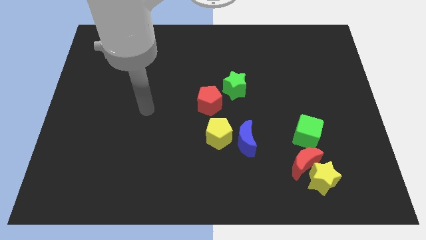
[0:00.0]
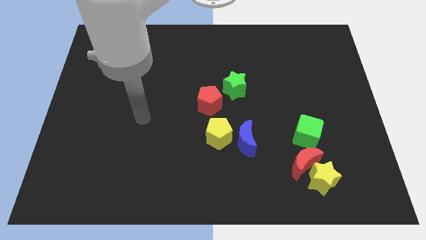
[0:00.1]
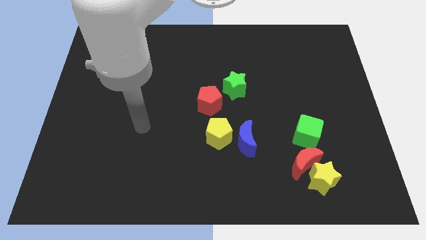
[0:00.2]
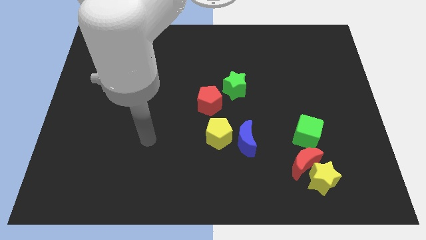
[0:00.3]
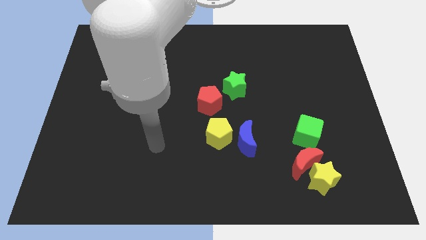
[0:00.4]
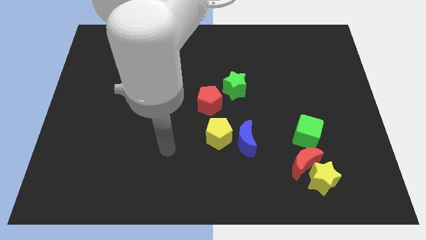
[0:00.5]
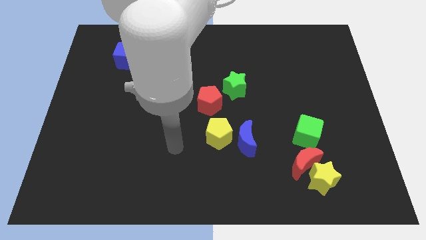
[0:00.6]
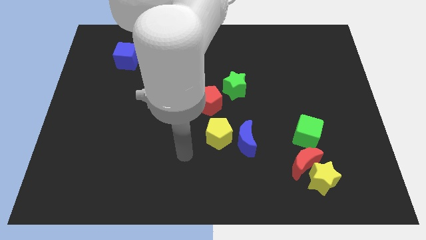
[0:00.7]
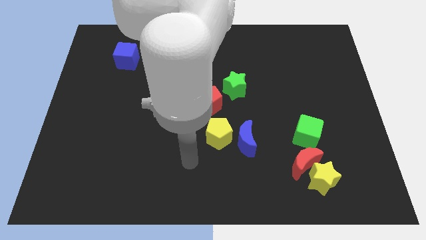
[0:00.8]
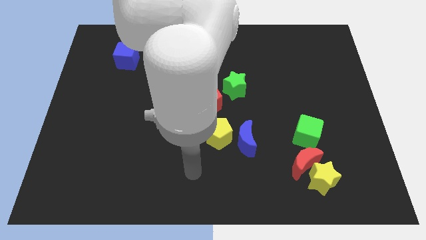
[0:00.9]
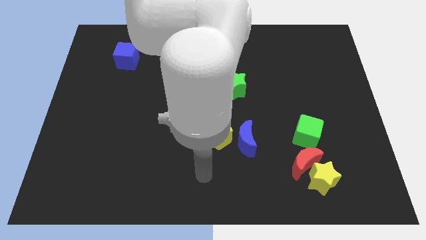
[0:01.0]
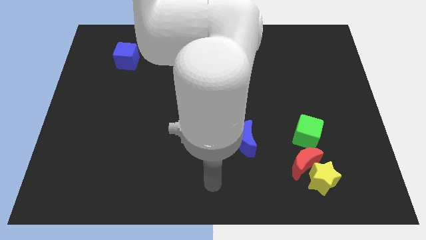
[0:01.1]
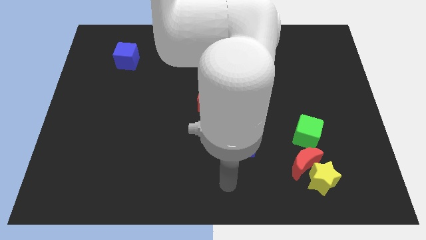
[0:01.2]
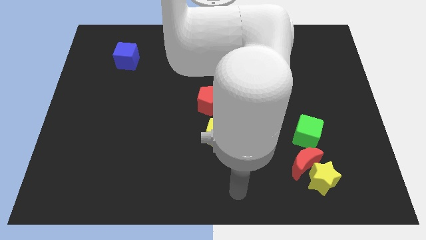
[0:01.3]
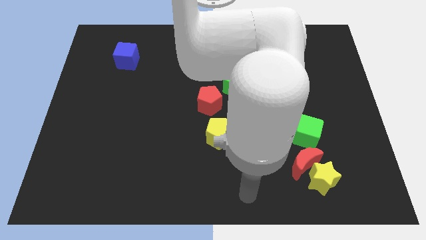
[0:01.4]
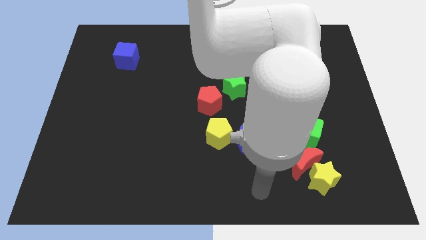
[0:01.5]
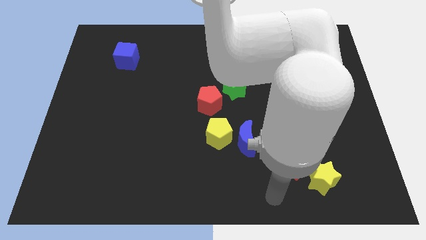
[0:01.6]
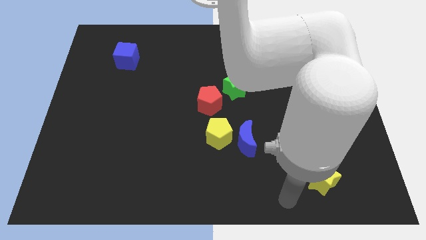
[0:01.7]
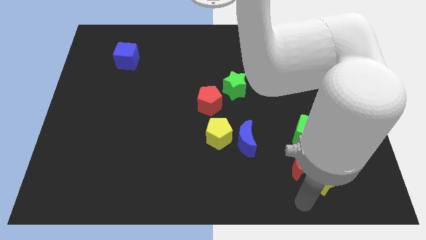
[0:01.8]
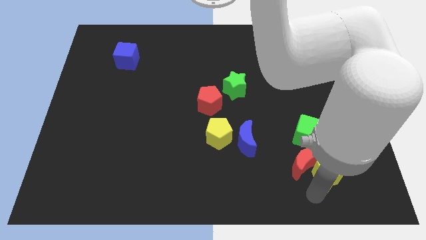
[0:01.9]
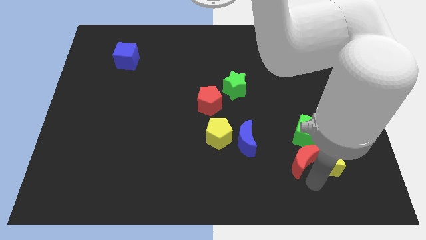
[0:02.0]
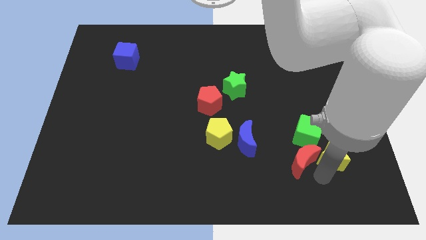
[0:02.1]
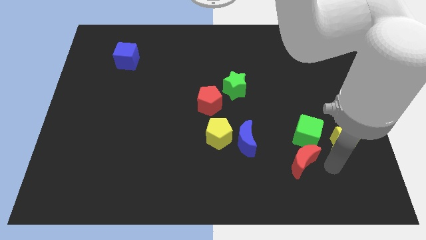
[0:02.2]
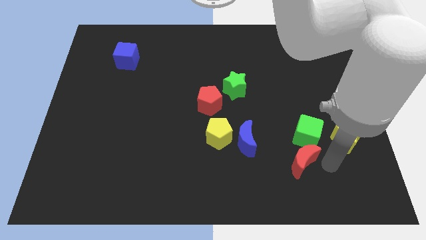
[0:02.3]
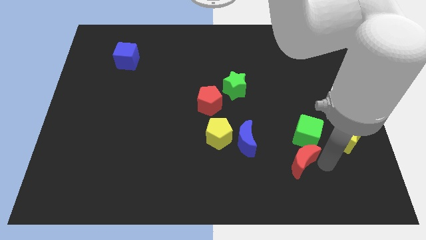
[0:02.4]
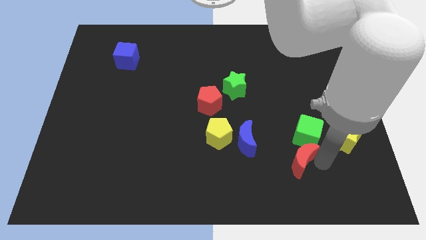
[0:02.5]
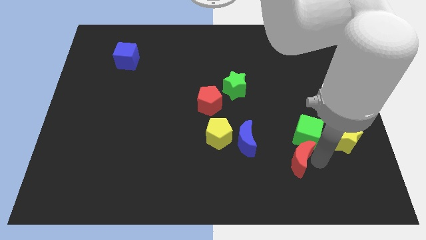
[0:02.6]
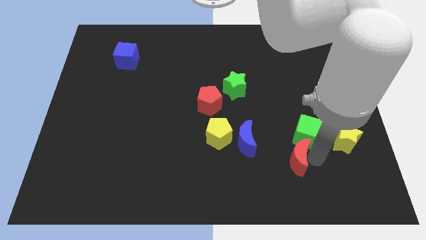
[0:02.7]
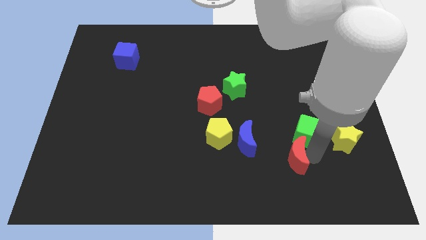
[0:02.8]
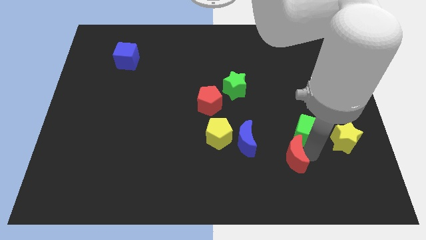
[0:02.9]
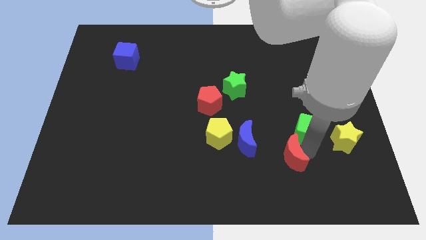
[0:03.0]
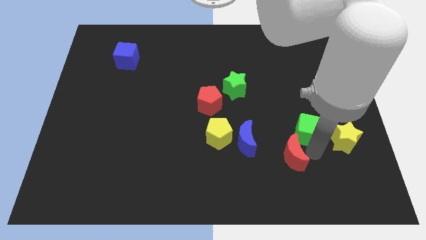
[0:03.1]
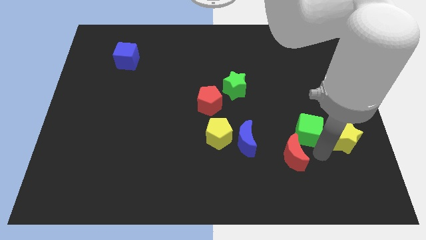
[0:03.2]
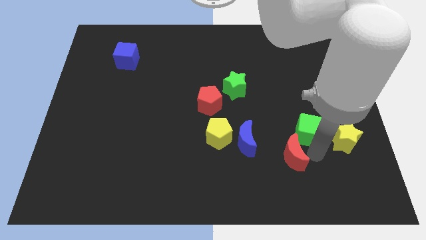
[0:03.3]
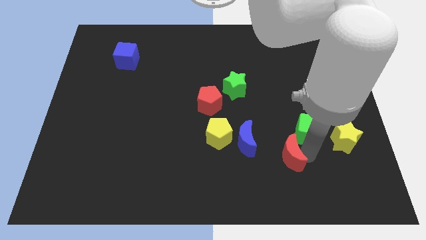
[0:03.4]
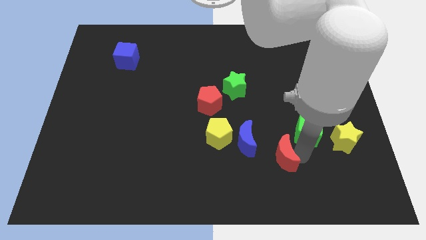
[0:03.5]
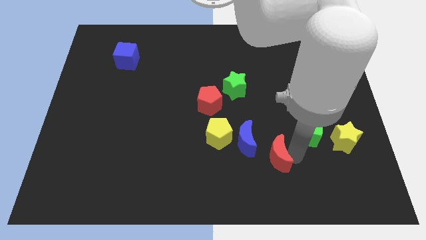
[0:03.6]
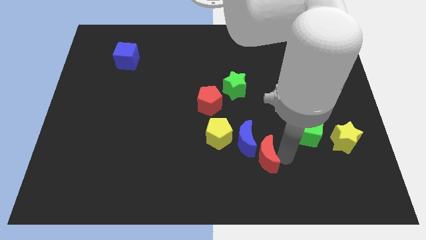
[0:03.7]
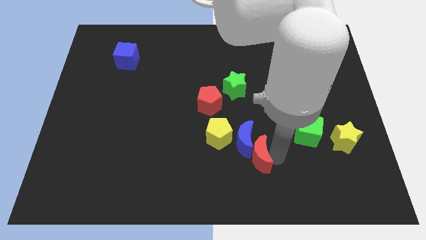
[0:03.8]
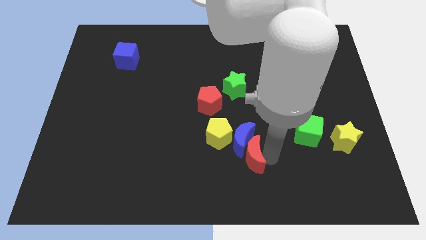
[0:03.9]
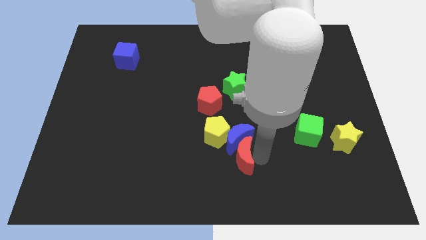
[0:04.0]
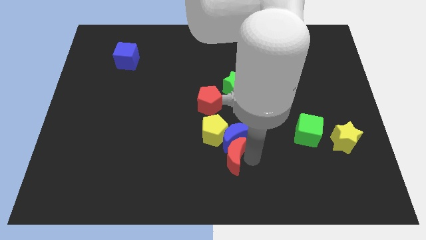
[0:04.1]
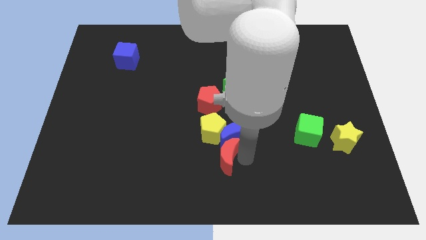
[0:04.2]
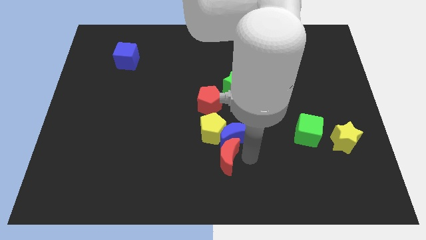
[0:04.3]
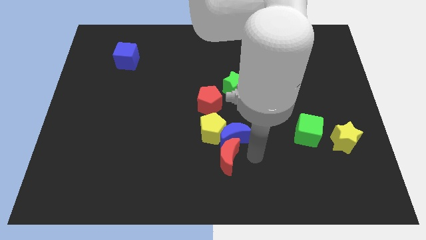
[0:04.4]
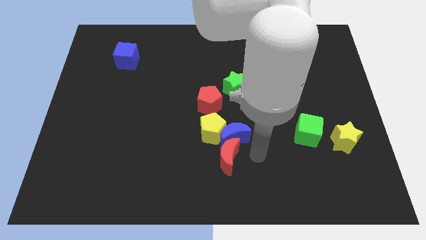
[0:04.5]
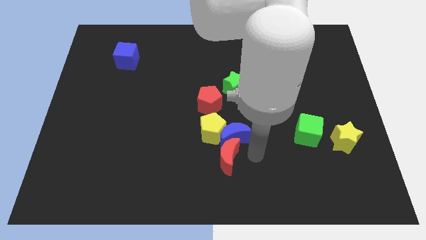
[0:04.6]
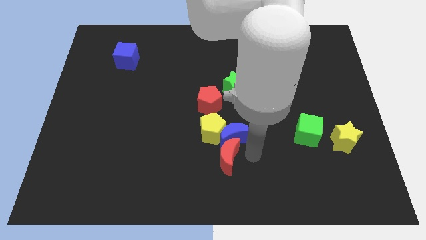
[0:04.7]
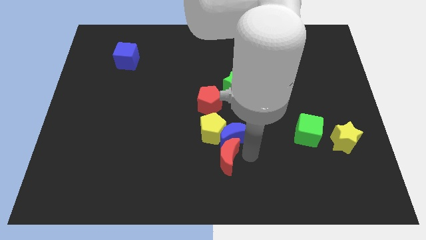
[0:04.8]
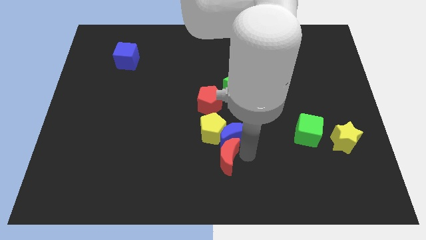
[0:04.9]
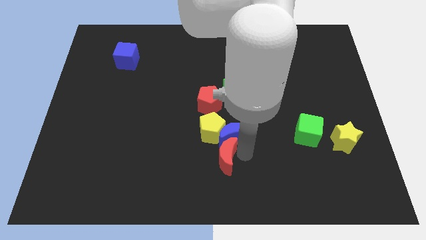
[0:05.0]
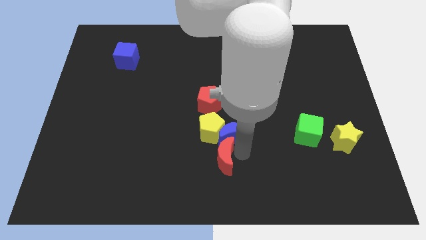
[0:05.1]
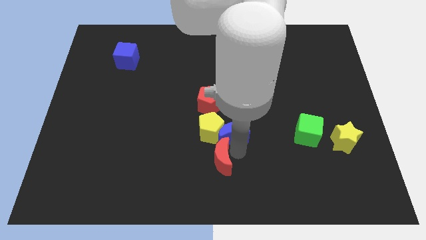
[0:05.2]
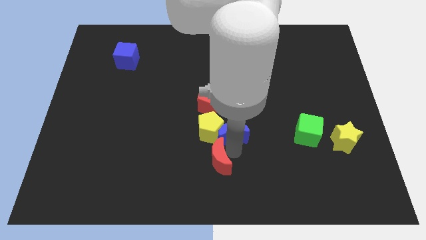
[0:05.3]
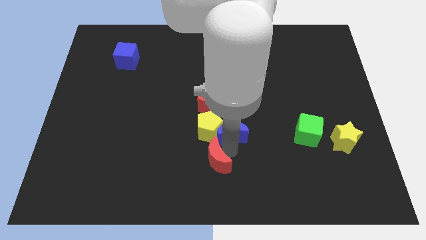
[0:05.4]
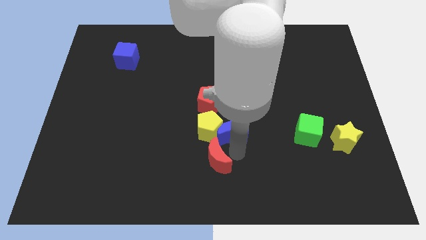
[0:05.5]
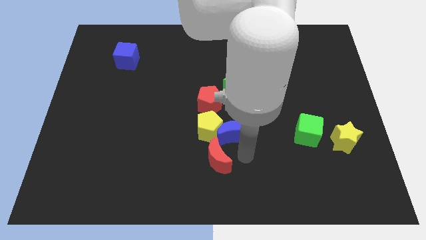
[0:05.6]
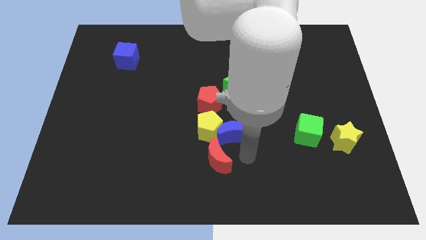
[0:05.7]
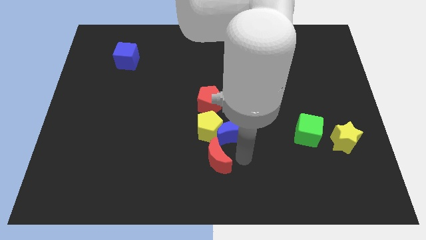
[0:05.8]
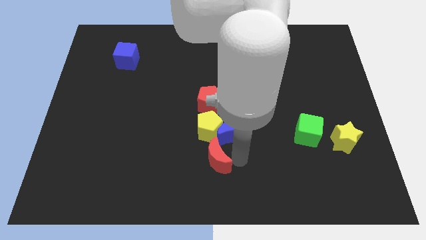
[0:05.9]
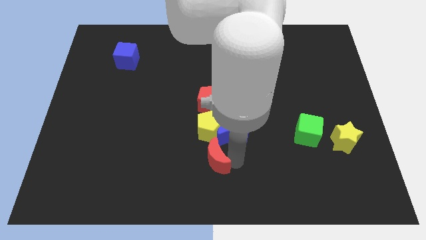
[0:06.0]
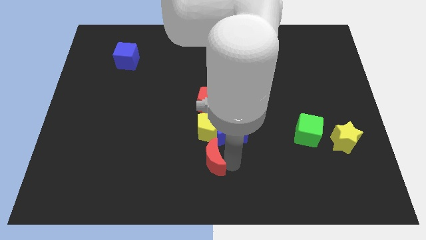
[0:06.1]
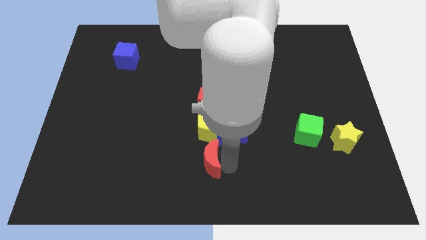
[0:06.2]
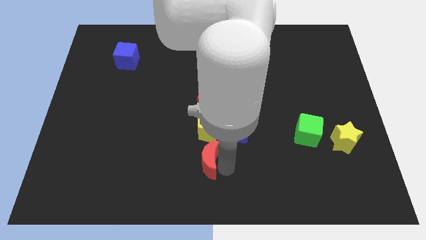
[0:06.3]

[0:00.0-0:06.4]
move the red moon to the left

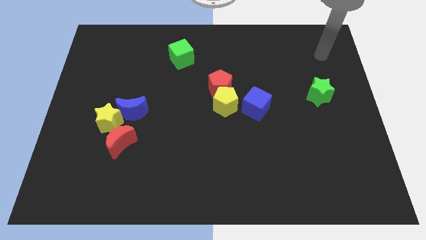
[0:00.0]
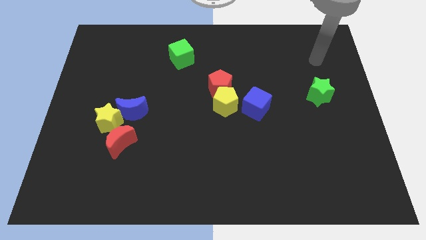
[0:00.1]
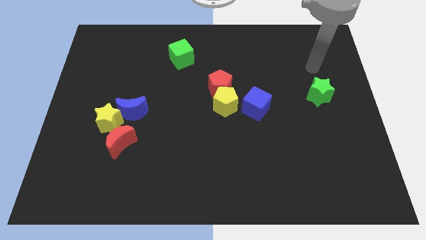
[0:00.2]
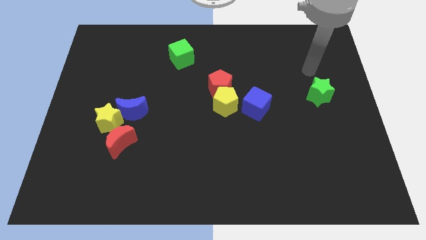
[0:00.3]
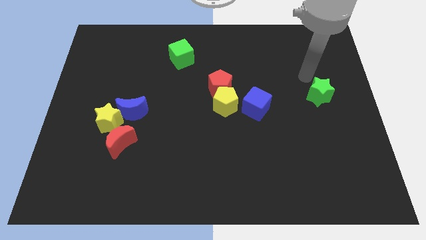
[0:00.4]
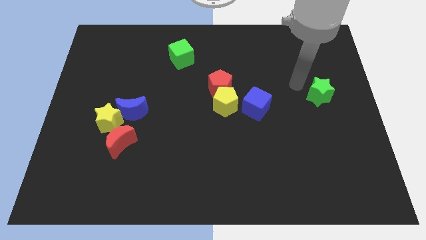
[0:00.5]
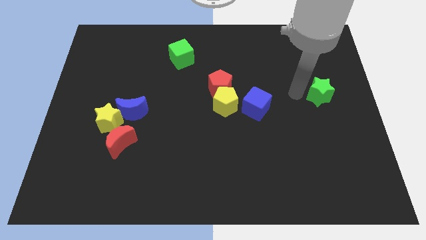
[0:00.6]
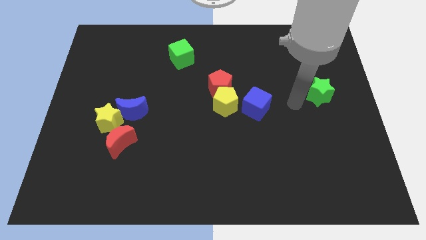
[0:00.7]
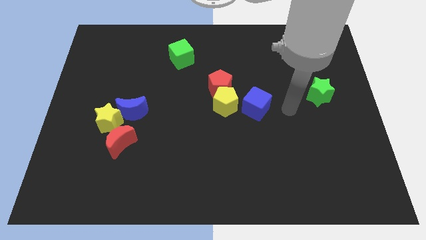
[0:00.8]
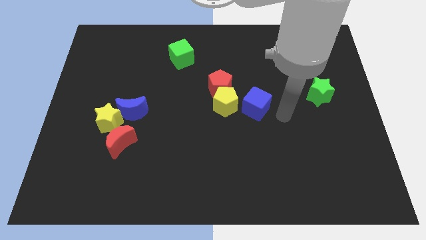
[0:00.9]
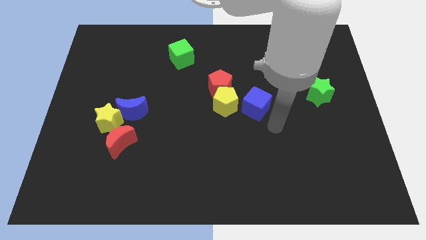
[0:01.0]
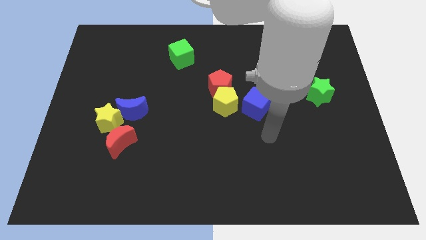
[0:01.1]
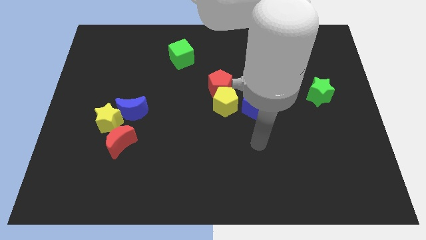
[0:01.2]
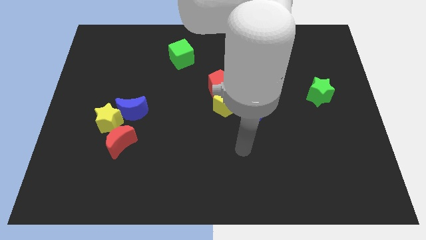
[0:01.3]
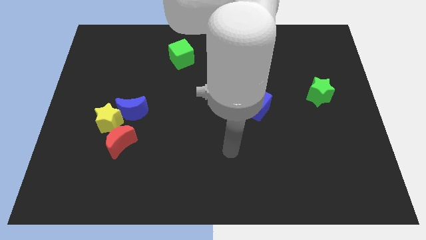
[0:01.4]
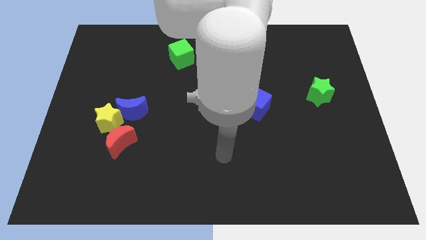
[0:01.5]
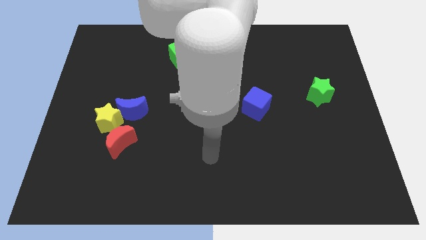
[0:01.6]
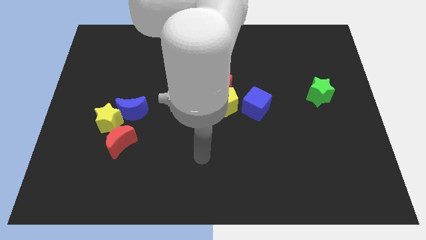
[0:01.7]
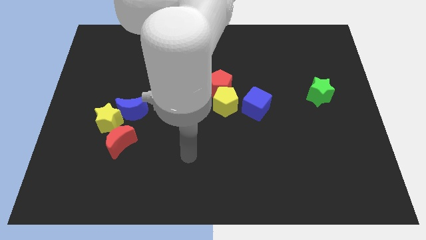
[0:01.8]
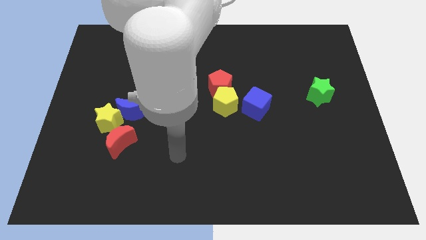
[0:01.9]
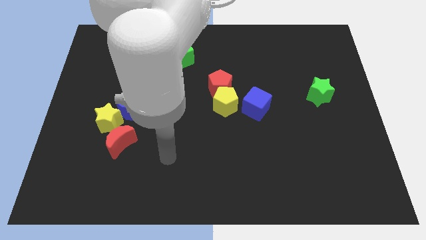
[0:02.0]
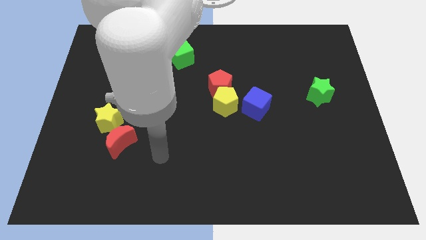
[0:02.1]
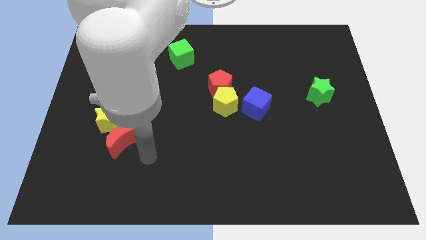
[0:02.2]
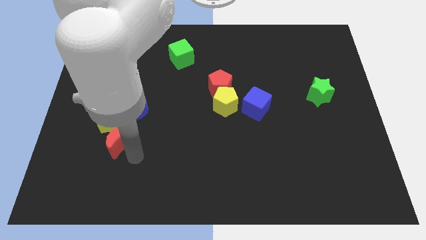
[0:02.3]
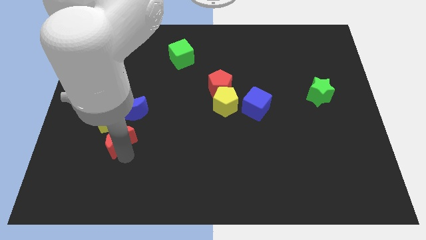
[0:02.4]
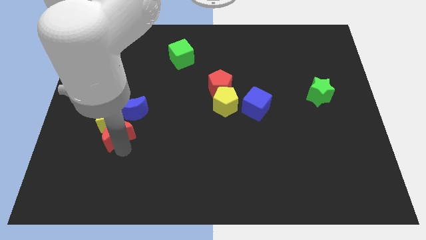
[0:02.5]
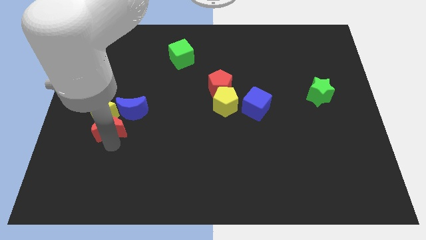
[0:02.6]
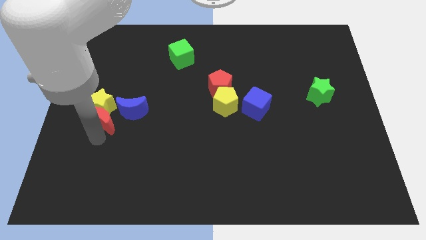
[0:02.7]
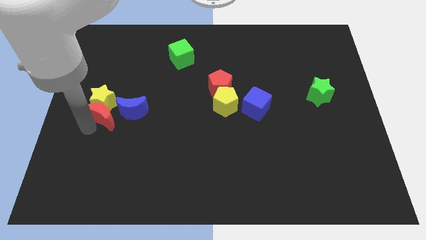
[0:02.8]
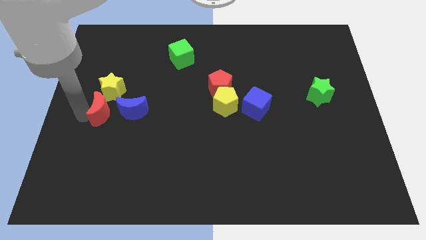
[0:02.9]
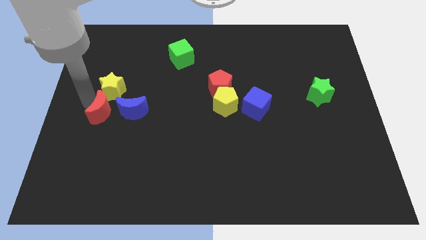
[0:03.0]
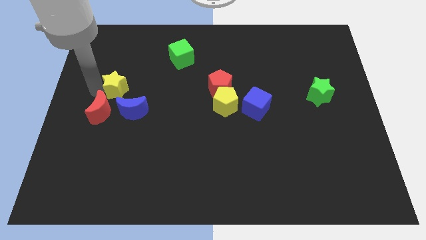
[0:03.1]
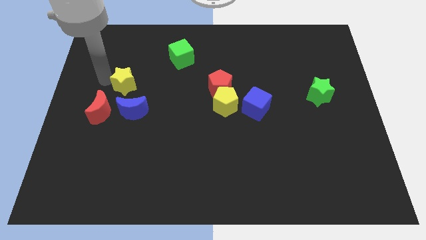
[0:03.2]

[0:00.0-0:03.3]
move the yellow star a little bit up and right diagonally
